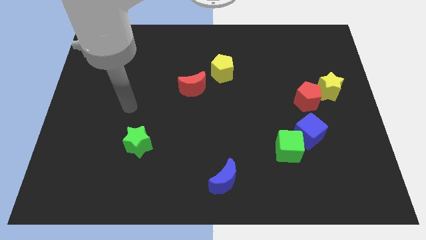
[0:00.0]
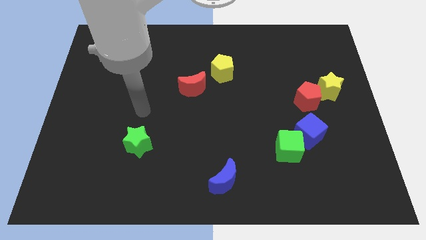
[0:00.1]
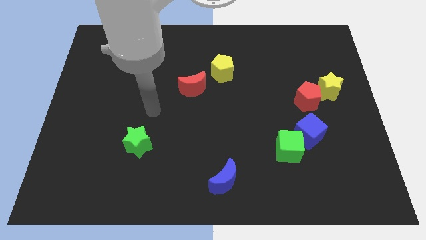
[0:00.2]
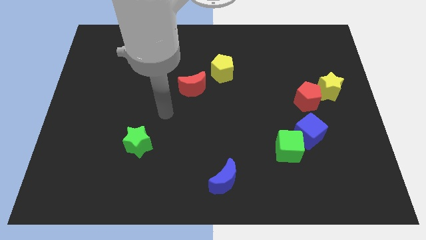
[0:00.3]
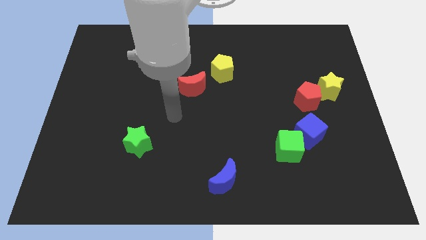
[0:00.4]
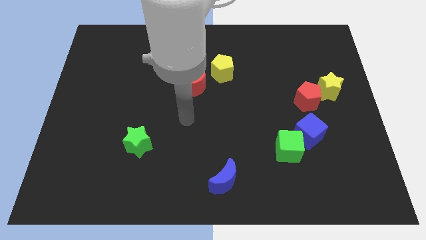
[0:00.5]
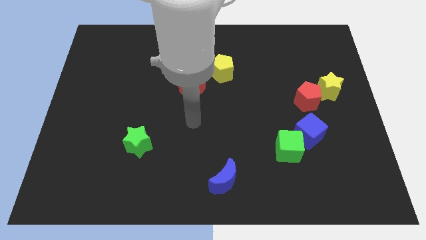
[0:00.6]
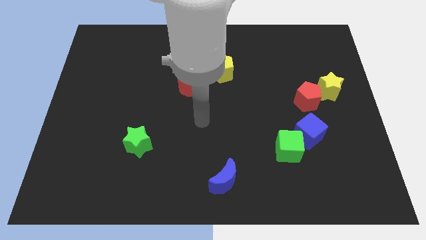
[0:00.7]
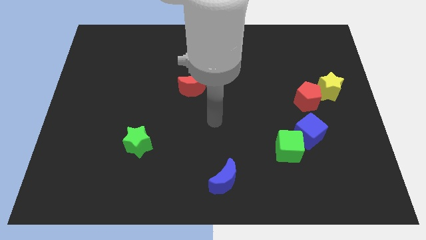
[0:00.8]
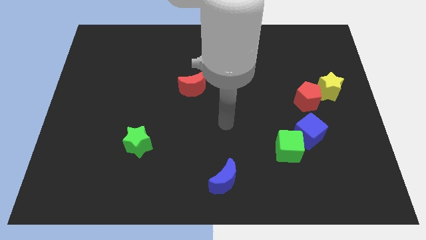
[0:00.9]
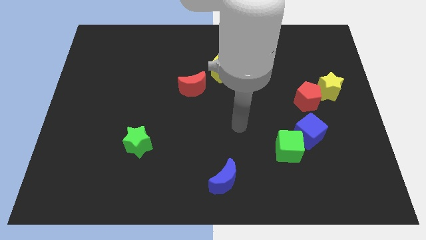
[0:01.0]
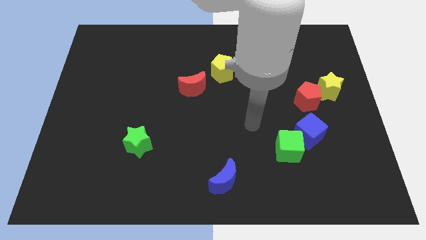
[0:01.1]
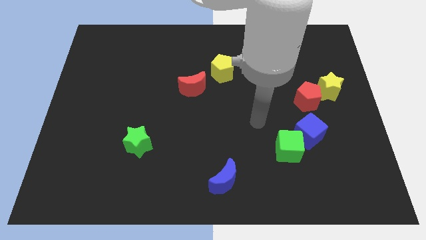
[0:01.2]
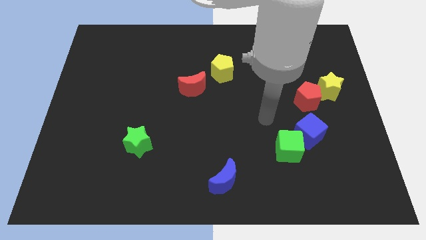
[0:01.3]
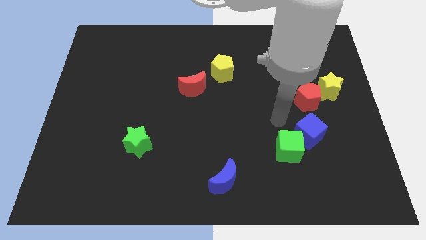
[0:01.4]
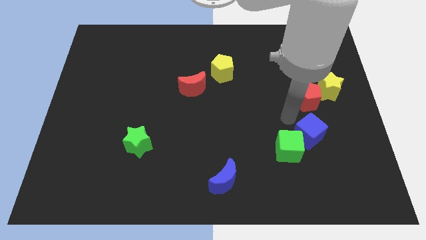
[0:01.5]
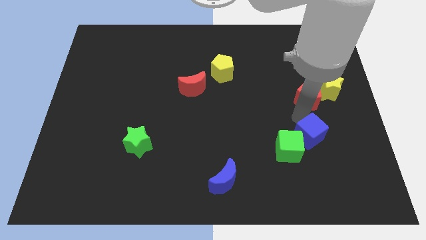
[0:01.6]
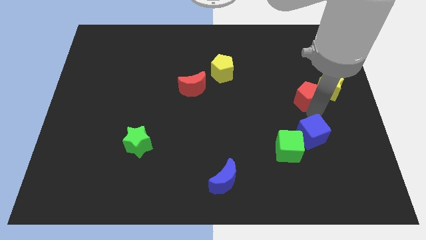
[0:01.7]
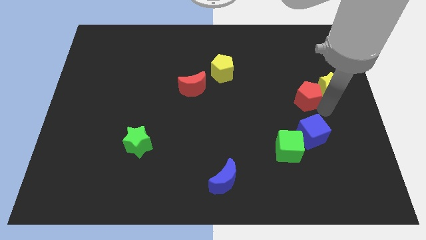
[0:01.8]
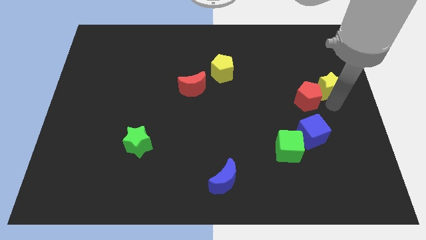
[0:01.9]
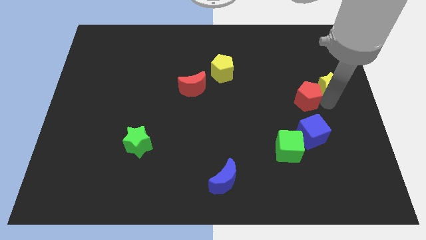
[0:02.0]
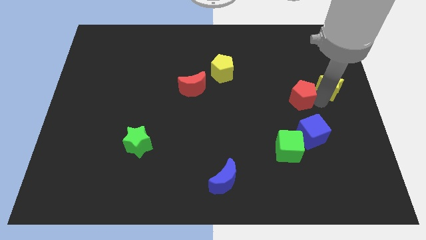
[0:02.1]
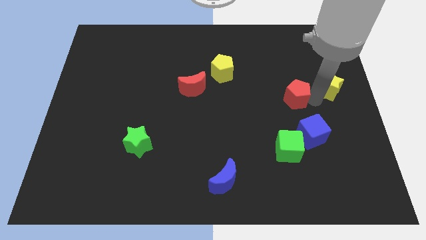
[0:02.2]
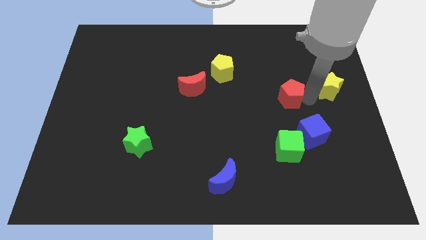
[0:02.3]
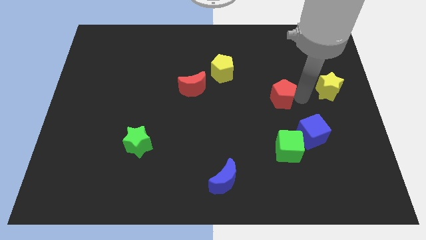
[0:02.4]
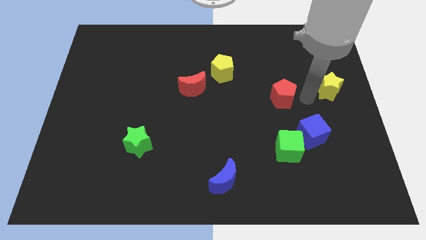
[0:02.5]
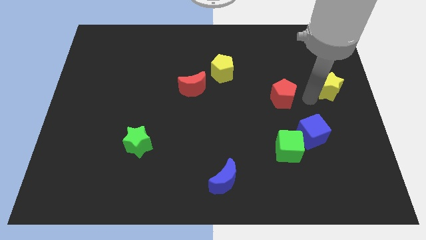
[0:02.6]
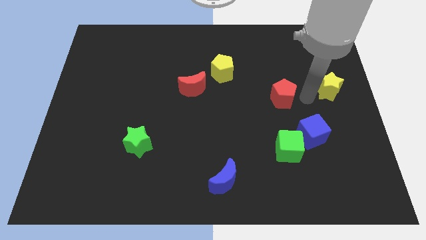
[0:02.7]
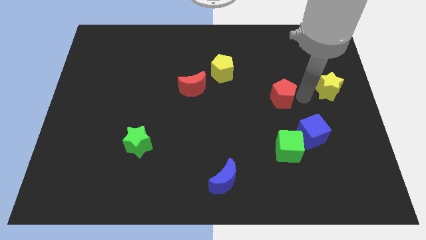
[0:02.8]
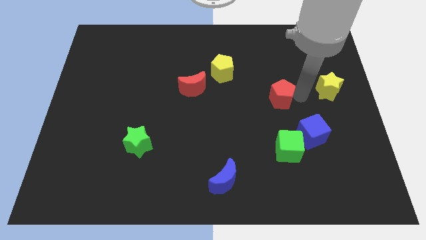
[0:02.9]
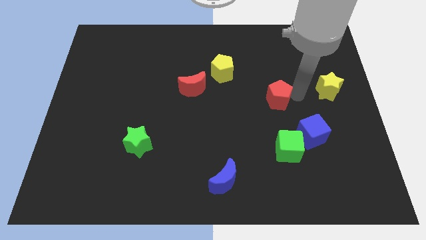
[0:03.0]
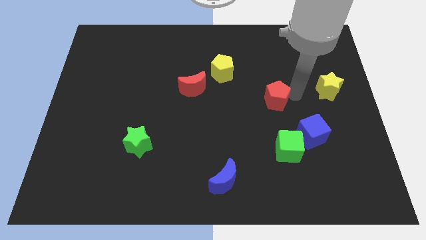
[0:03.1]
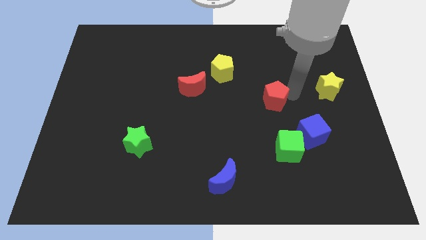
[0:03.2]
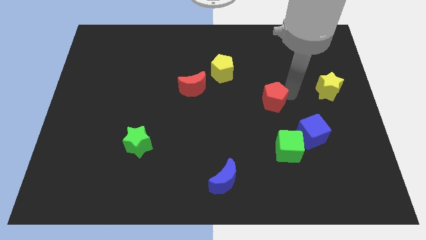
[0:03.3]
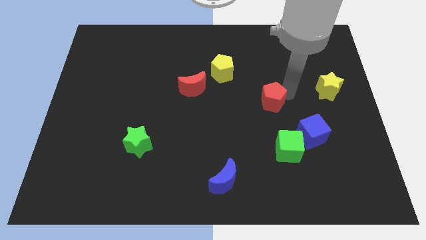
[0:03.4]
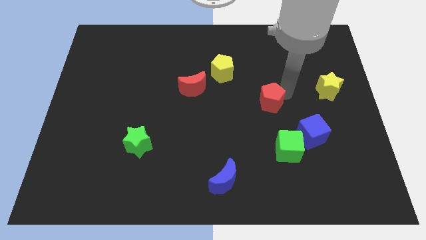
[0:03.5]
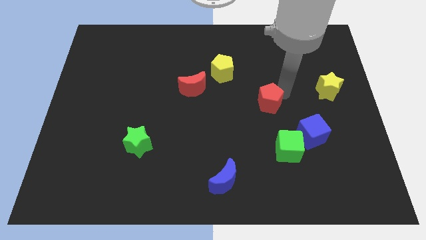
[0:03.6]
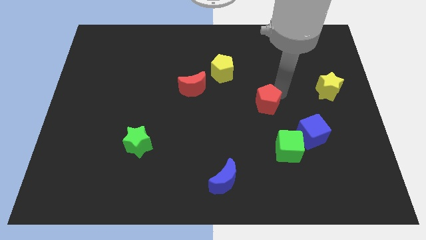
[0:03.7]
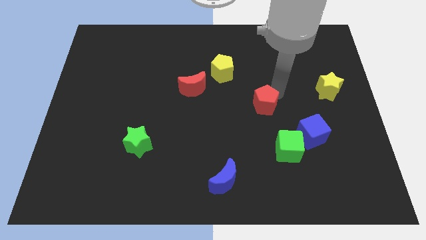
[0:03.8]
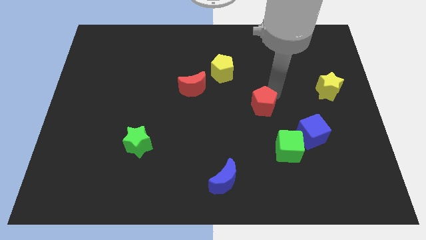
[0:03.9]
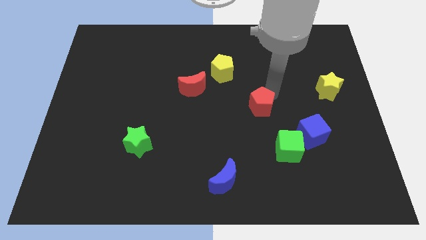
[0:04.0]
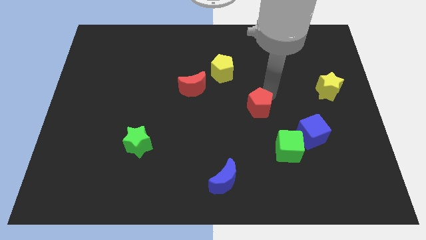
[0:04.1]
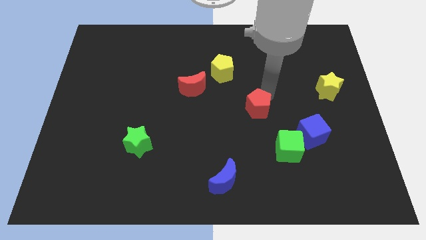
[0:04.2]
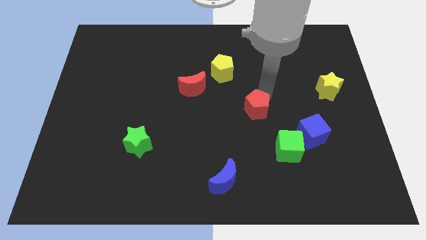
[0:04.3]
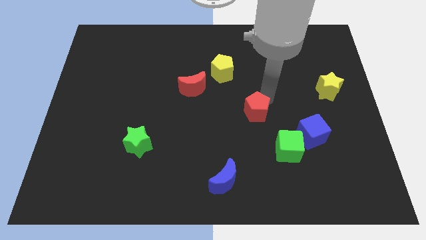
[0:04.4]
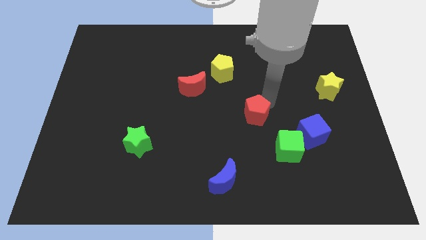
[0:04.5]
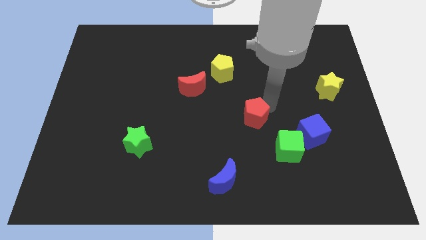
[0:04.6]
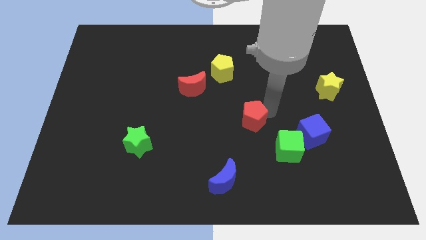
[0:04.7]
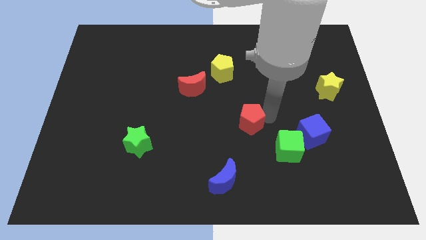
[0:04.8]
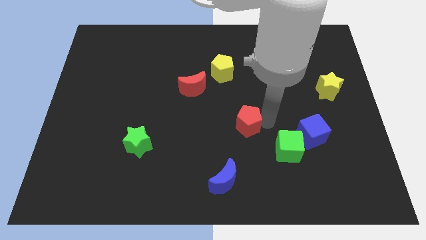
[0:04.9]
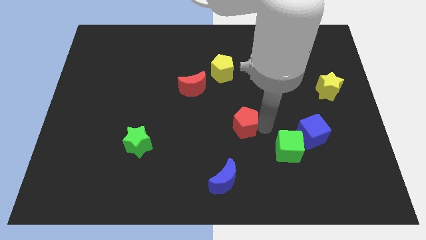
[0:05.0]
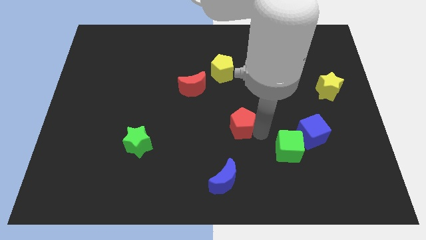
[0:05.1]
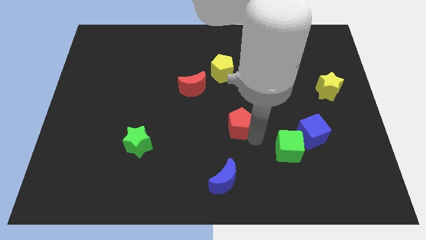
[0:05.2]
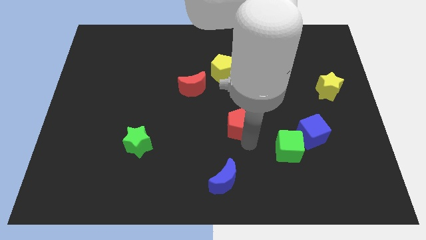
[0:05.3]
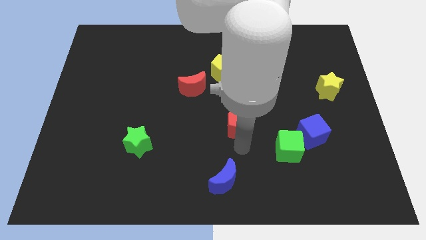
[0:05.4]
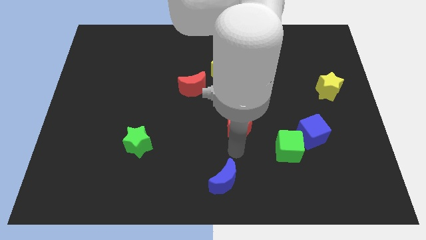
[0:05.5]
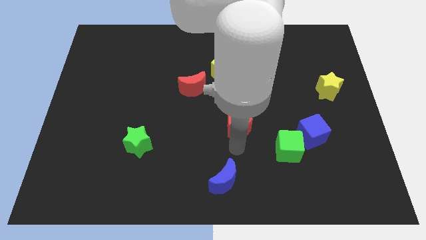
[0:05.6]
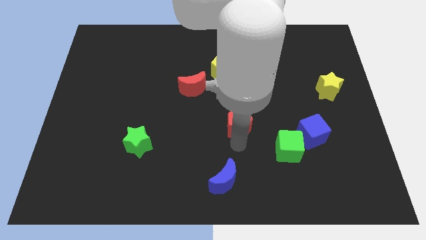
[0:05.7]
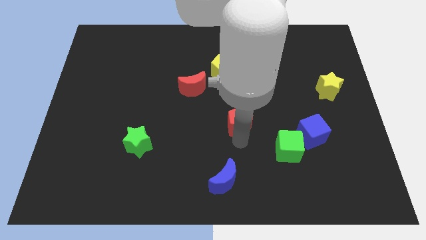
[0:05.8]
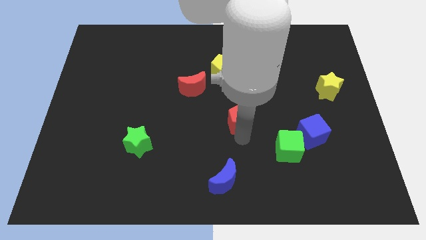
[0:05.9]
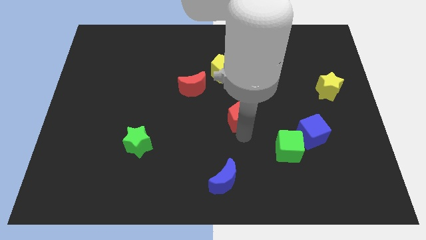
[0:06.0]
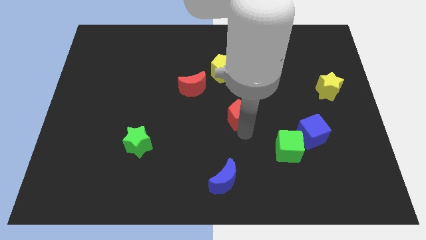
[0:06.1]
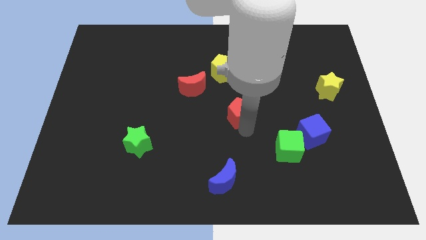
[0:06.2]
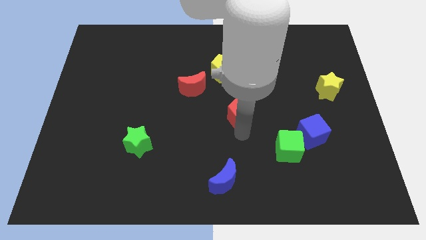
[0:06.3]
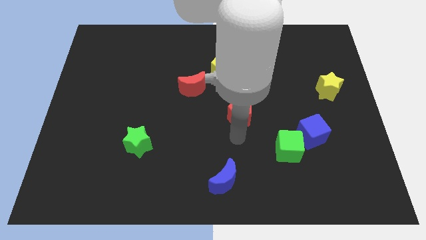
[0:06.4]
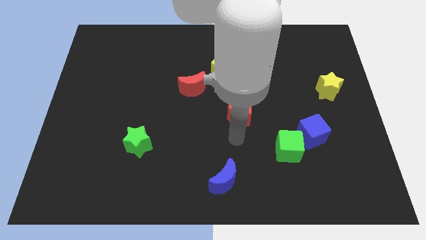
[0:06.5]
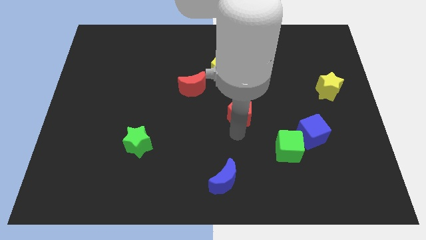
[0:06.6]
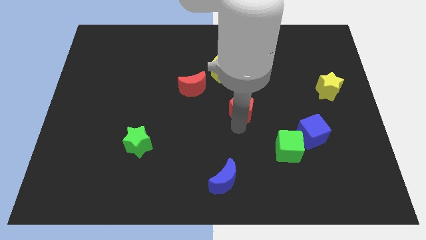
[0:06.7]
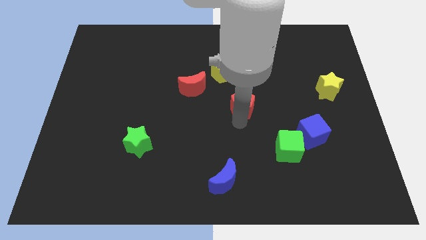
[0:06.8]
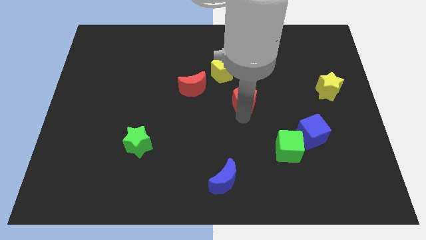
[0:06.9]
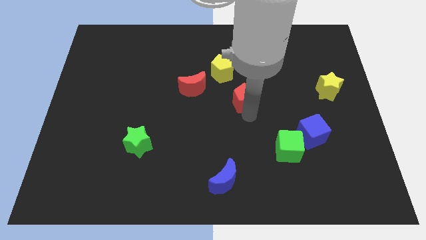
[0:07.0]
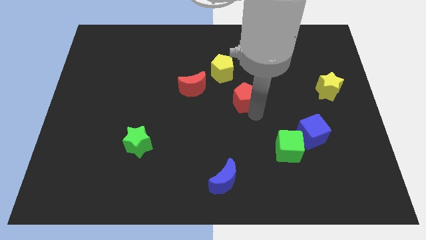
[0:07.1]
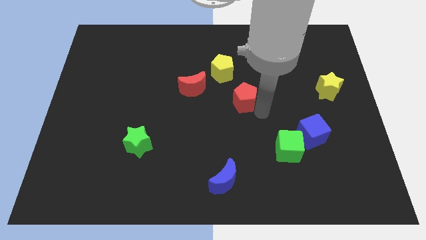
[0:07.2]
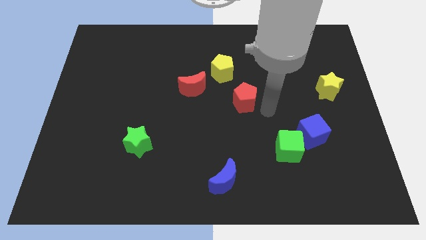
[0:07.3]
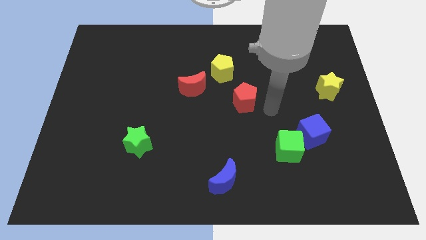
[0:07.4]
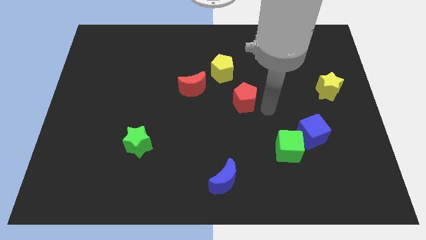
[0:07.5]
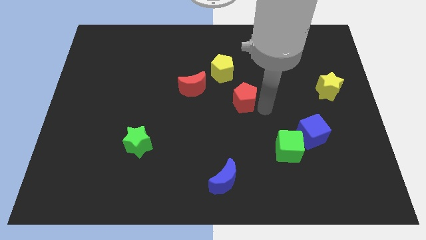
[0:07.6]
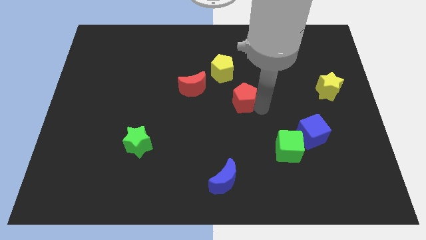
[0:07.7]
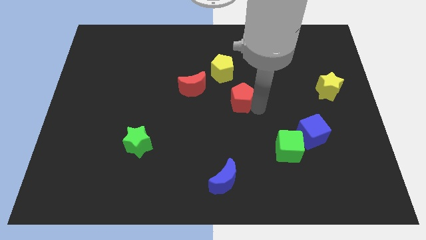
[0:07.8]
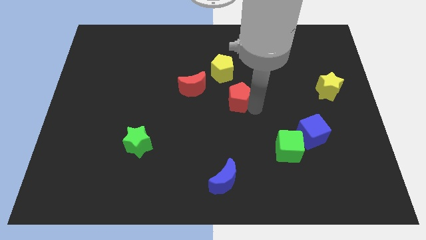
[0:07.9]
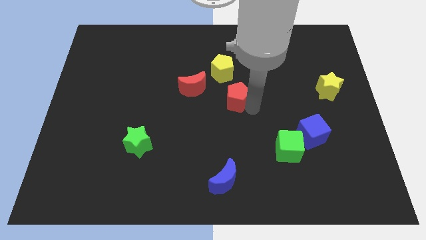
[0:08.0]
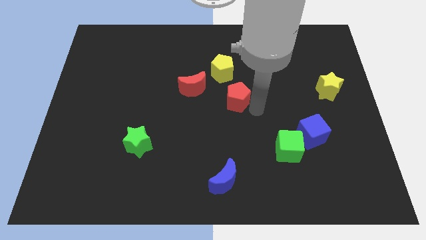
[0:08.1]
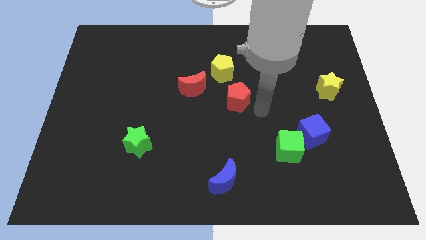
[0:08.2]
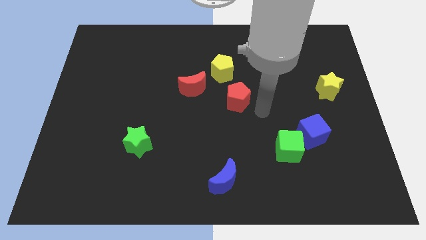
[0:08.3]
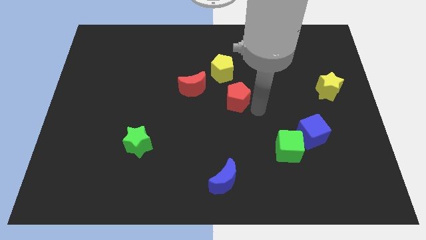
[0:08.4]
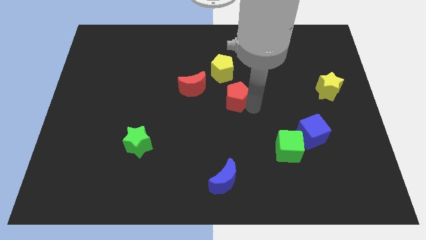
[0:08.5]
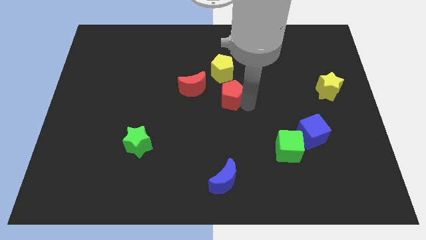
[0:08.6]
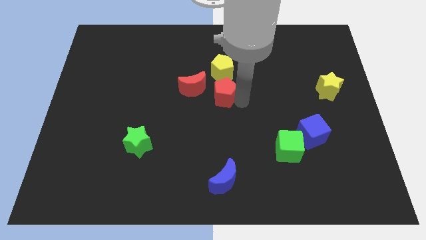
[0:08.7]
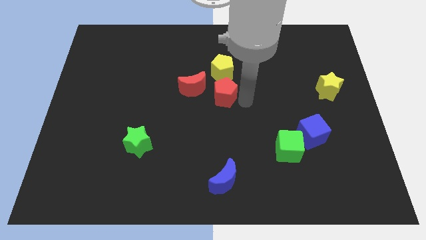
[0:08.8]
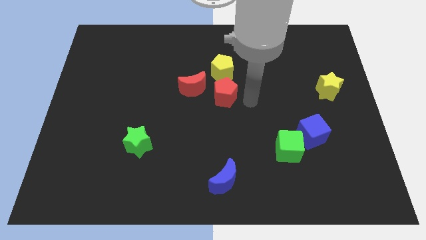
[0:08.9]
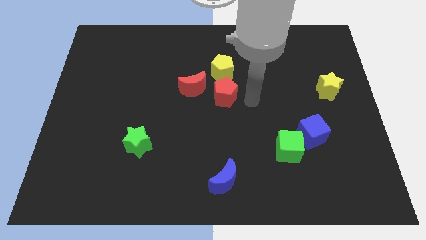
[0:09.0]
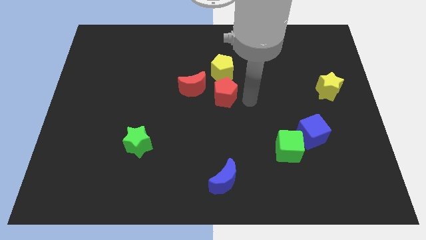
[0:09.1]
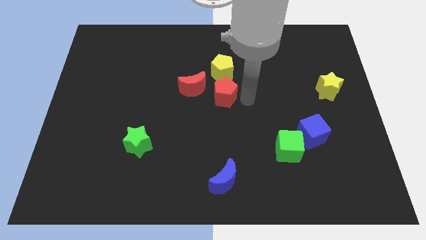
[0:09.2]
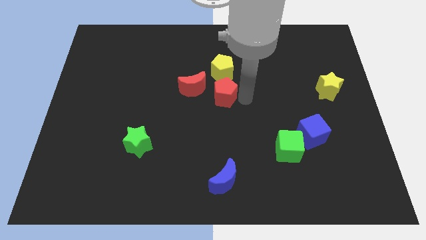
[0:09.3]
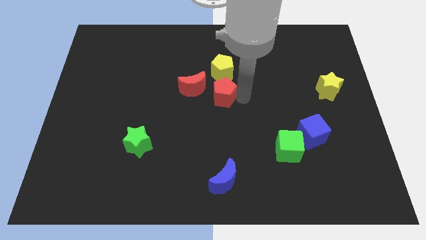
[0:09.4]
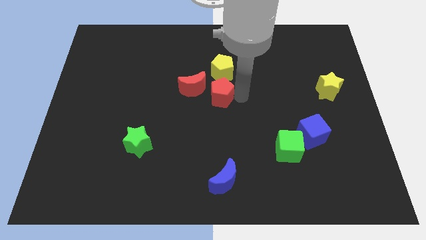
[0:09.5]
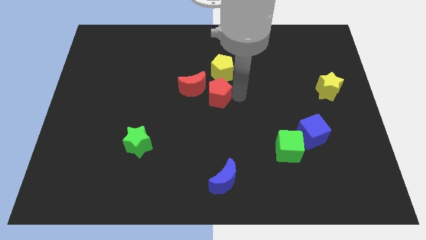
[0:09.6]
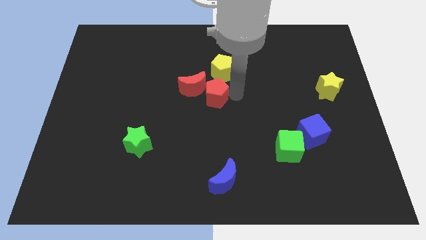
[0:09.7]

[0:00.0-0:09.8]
slide the red pentagon to the red moon
